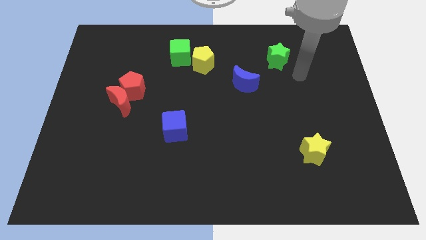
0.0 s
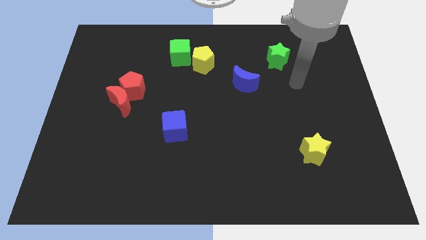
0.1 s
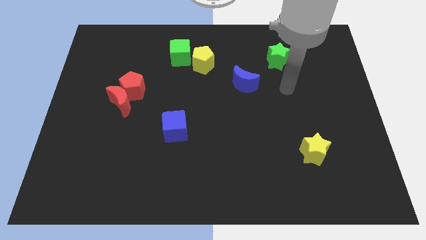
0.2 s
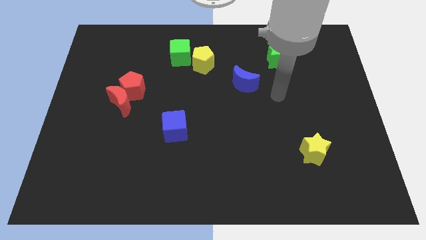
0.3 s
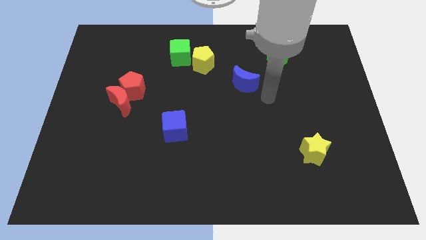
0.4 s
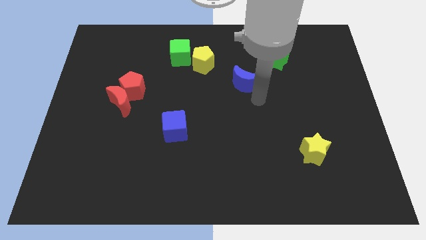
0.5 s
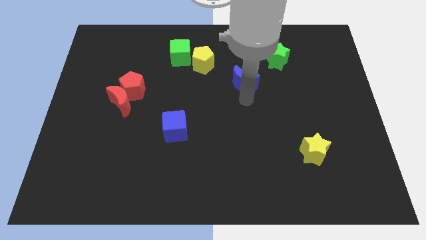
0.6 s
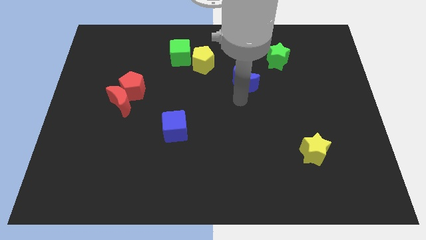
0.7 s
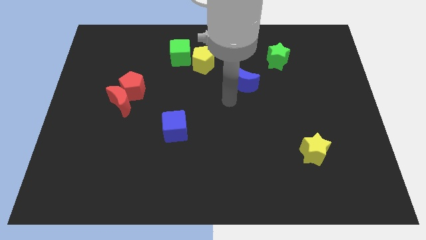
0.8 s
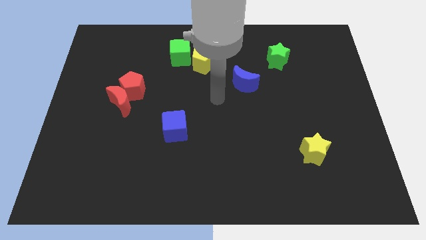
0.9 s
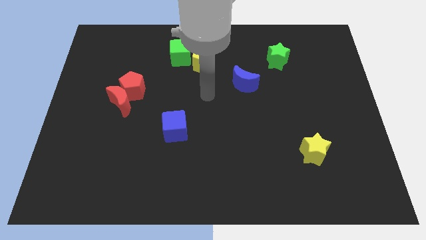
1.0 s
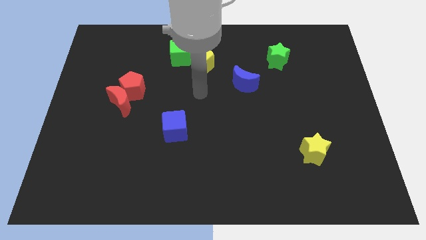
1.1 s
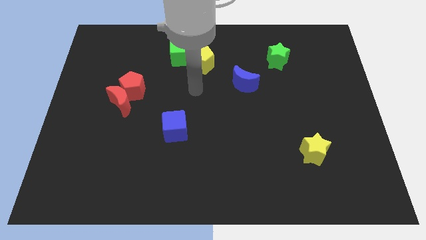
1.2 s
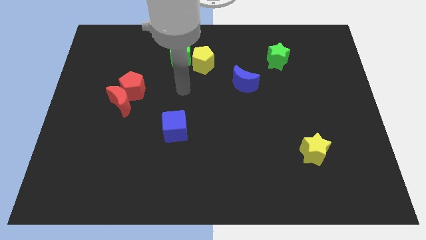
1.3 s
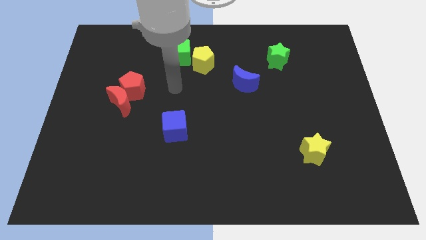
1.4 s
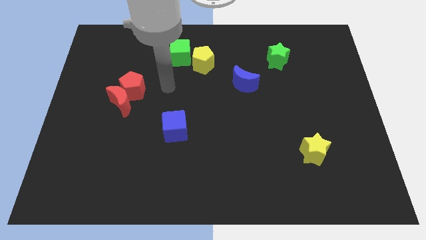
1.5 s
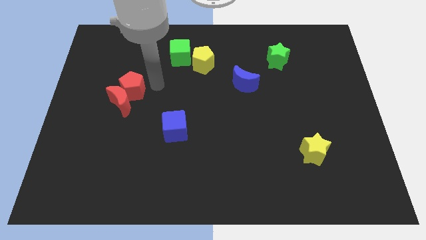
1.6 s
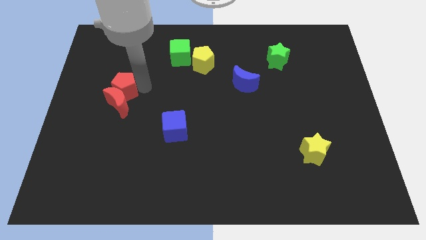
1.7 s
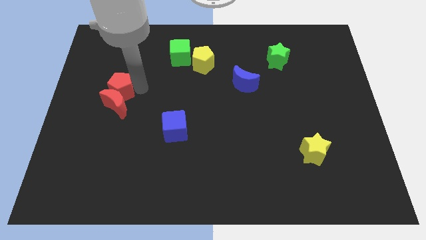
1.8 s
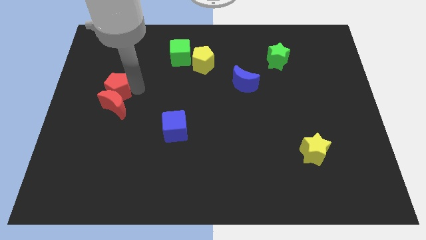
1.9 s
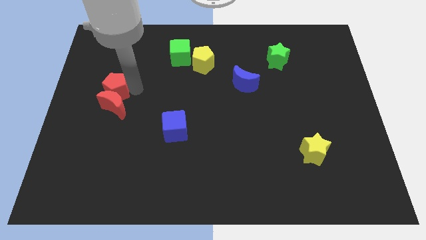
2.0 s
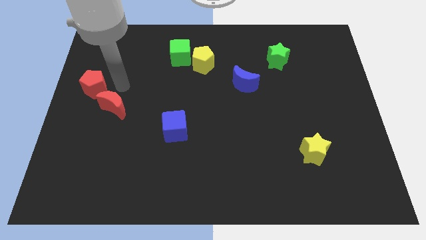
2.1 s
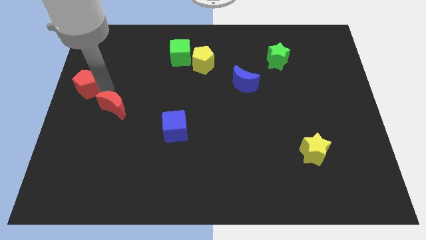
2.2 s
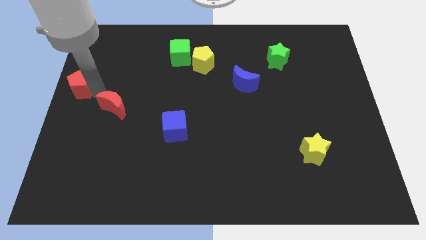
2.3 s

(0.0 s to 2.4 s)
separate the red moon from the red pentagon

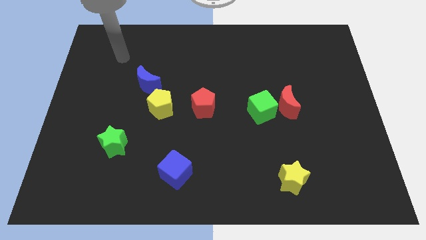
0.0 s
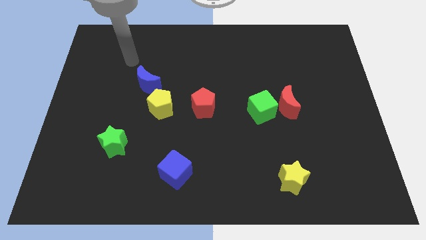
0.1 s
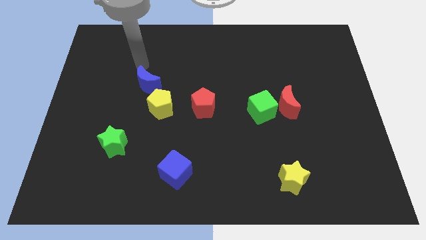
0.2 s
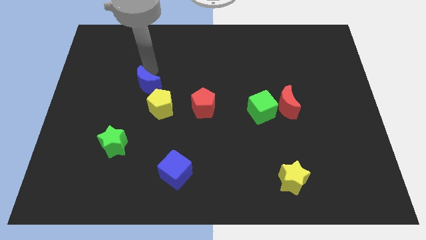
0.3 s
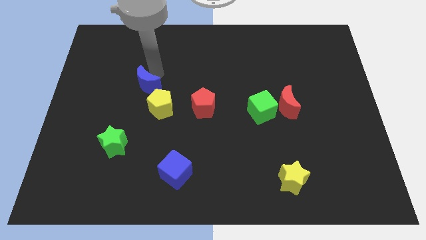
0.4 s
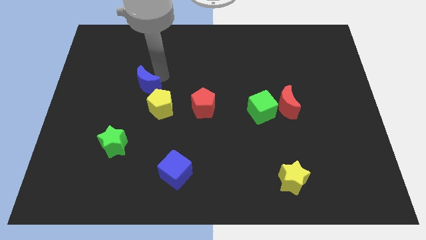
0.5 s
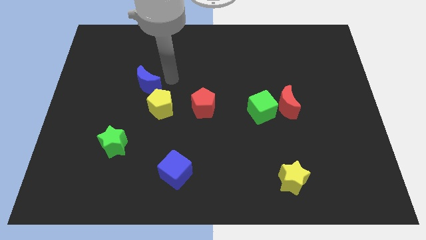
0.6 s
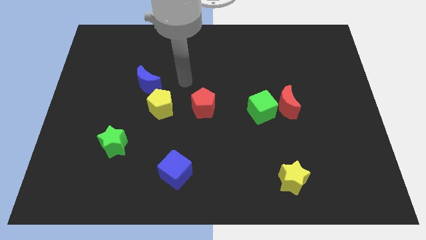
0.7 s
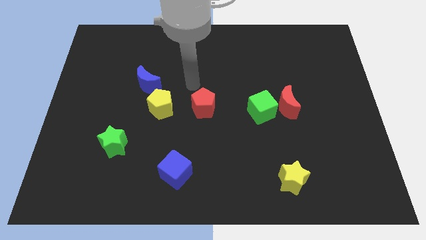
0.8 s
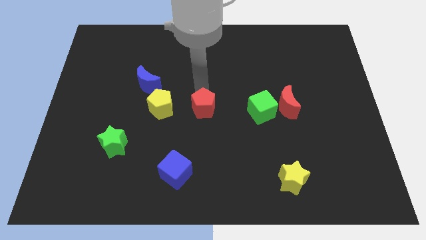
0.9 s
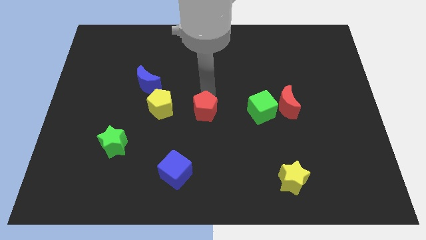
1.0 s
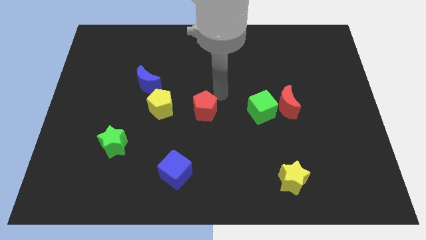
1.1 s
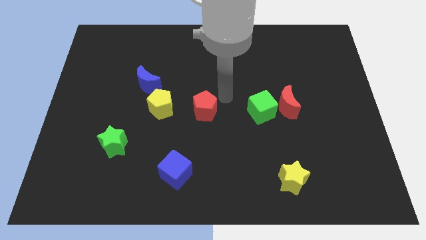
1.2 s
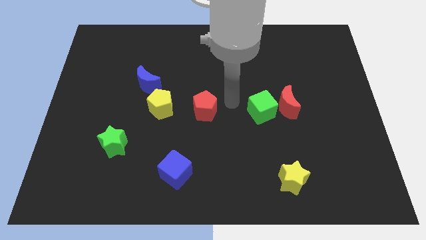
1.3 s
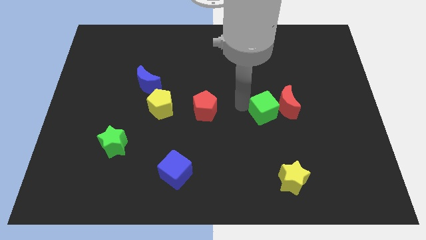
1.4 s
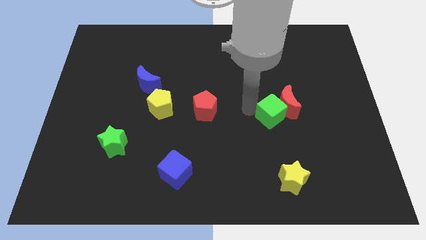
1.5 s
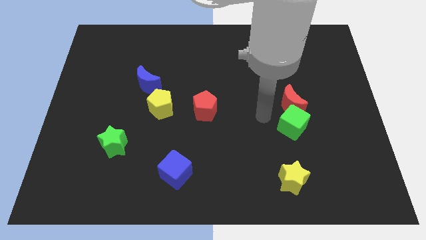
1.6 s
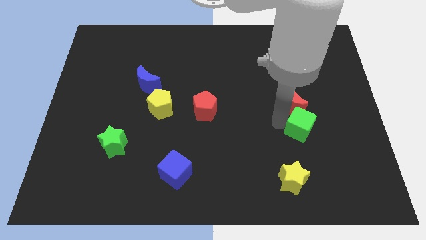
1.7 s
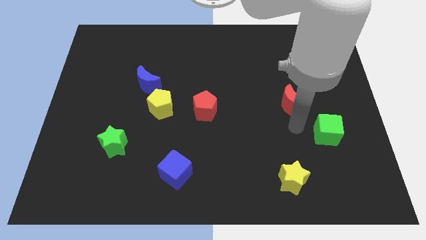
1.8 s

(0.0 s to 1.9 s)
move the red moon away from the green cube

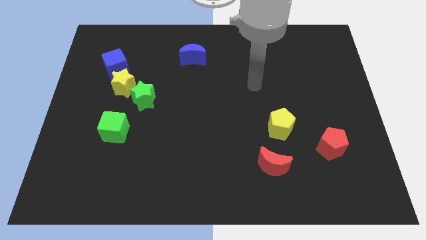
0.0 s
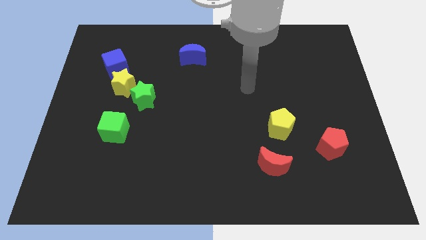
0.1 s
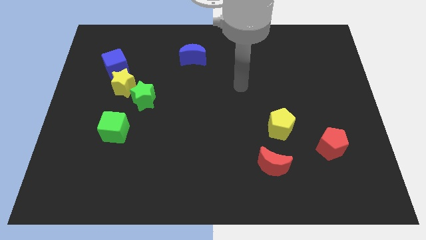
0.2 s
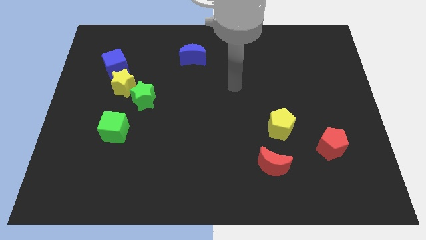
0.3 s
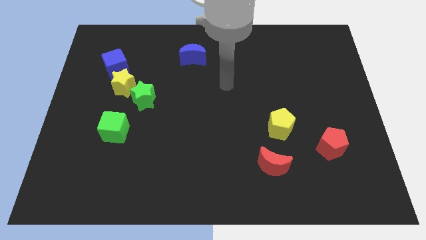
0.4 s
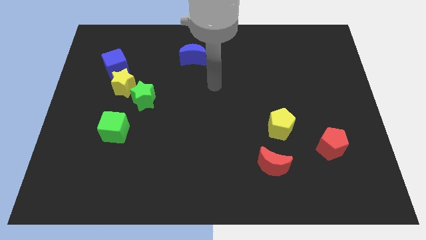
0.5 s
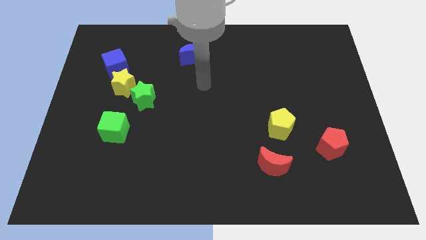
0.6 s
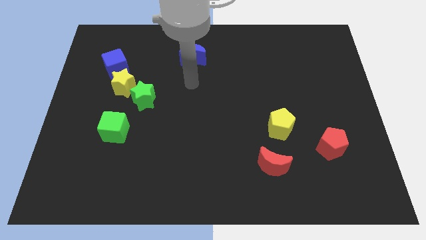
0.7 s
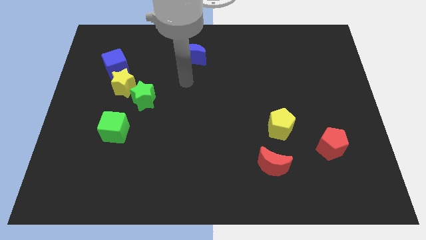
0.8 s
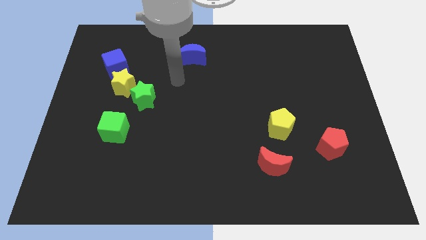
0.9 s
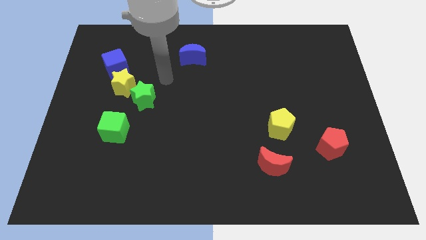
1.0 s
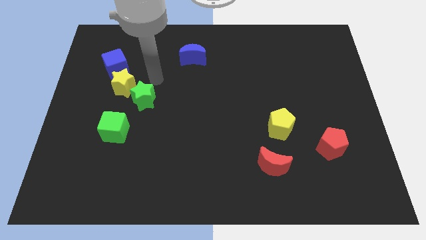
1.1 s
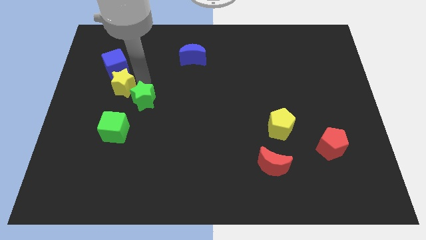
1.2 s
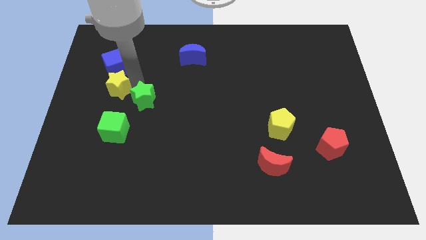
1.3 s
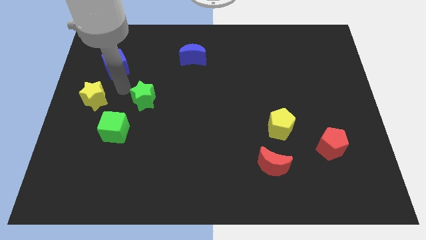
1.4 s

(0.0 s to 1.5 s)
pull the green star apart from the yellow star

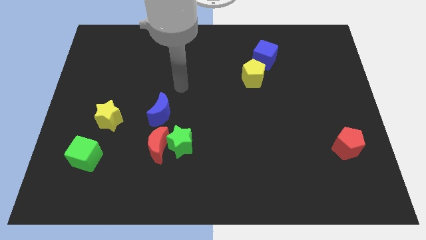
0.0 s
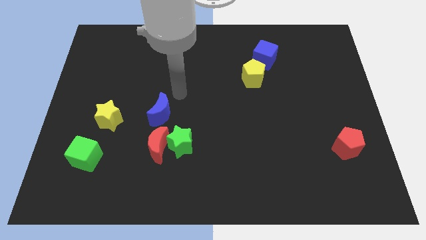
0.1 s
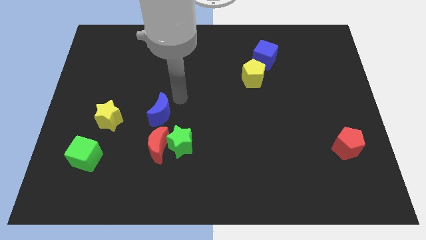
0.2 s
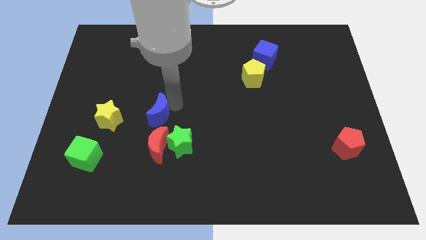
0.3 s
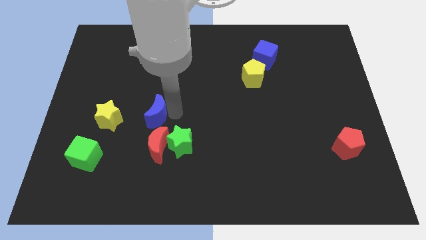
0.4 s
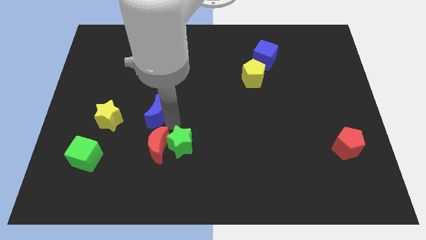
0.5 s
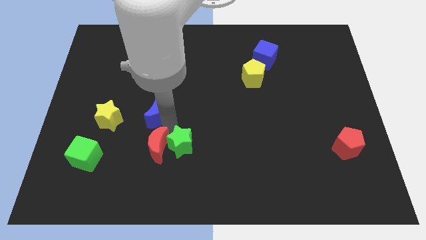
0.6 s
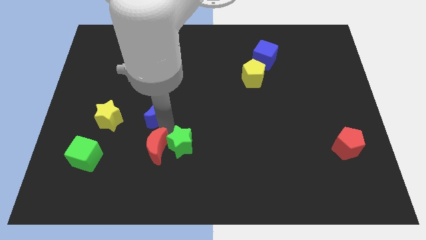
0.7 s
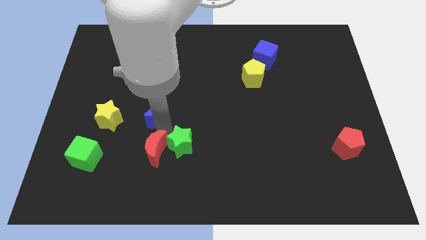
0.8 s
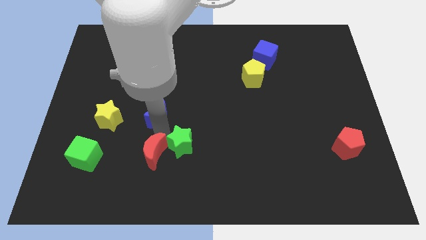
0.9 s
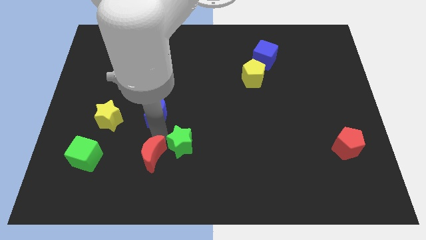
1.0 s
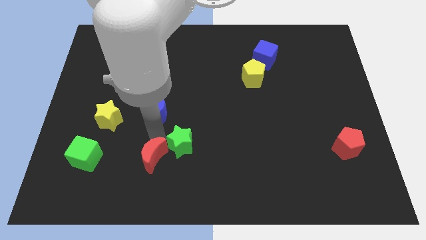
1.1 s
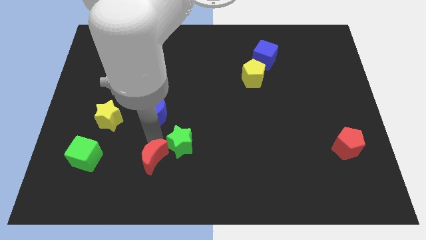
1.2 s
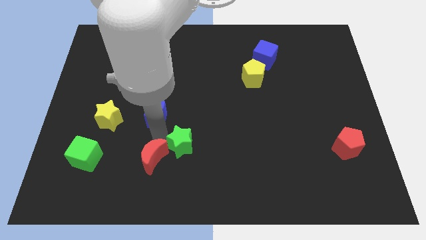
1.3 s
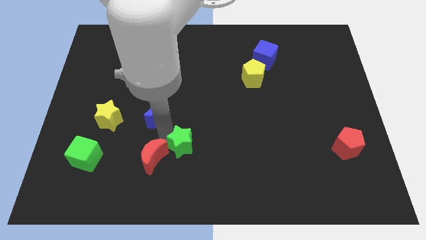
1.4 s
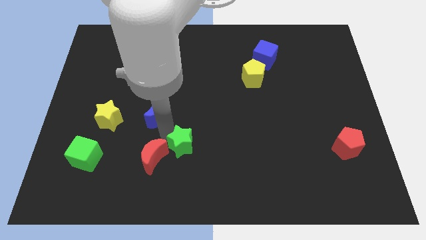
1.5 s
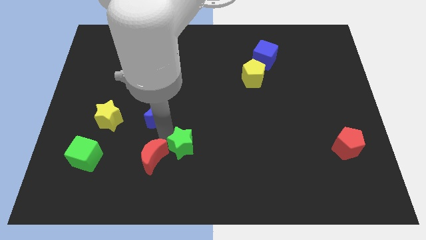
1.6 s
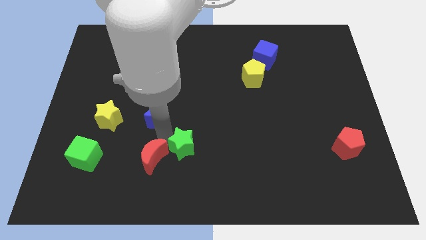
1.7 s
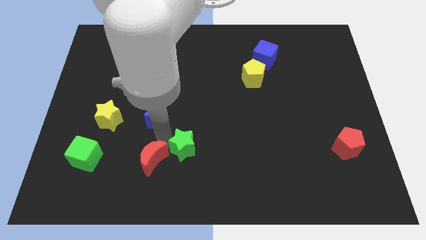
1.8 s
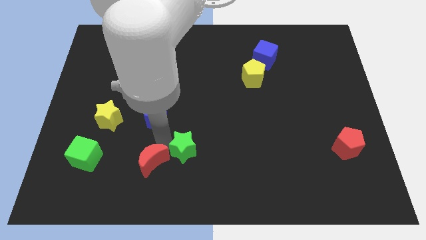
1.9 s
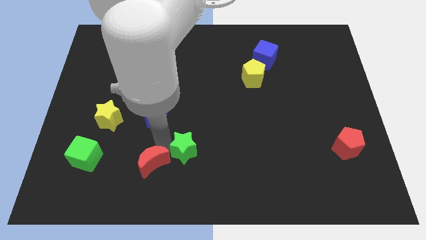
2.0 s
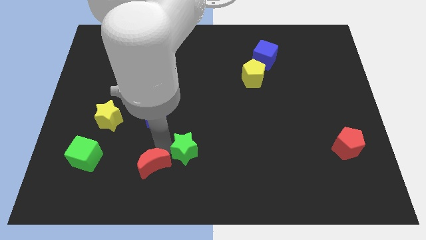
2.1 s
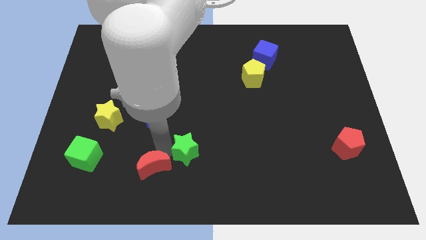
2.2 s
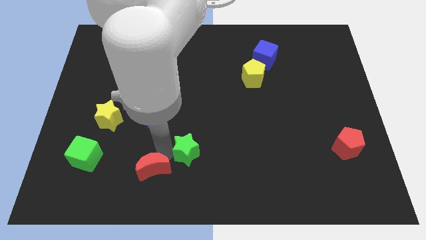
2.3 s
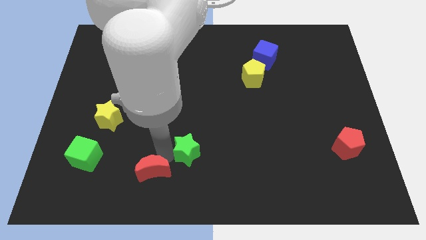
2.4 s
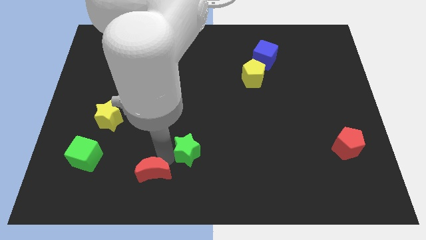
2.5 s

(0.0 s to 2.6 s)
separate the red moon from the green star and blue moon

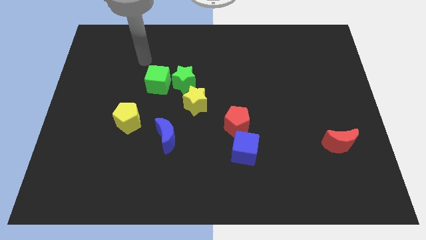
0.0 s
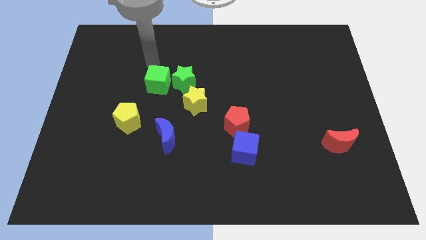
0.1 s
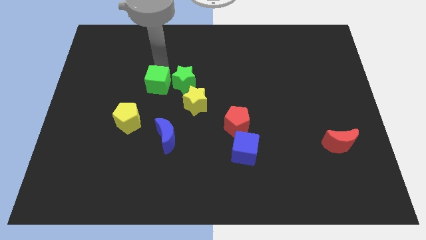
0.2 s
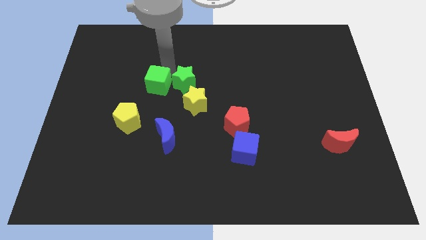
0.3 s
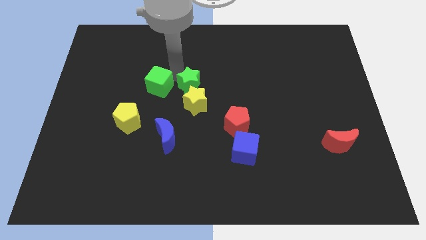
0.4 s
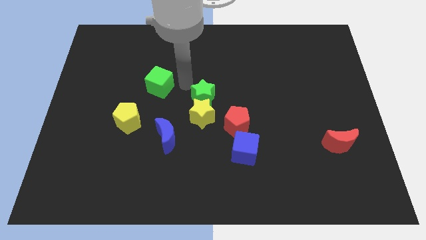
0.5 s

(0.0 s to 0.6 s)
separate the green cube from the green star

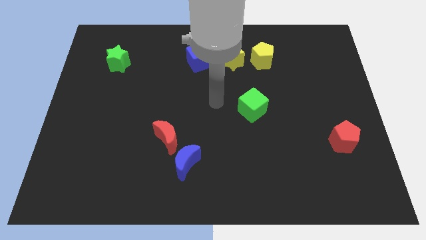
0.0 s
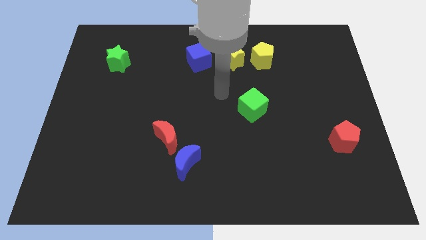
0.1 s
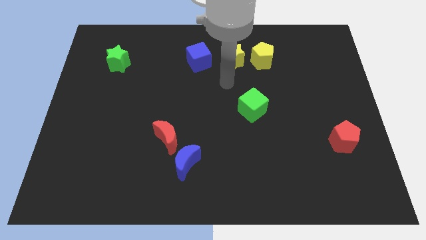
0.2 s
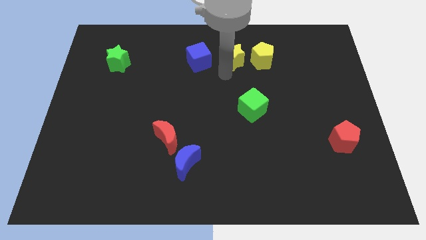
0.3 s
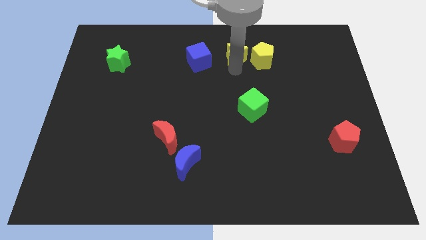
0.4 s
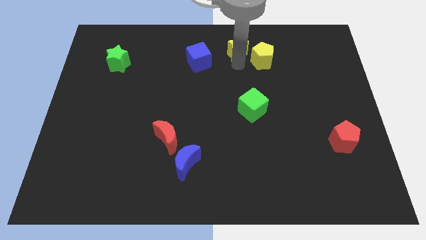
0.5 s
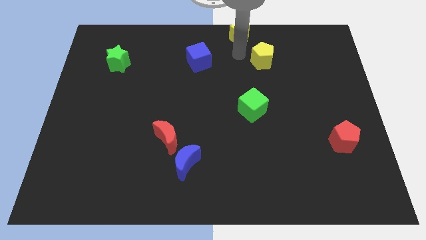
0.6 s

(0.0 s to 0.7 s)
separate the yellow pentagon from the yellow star
